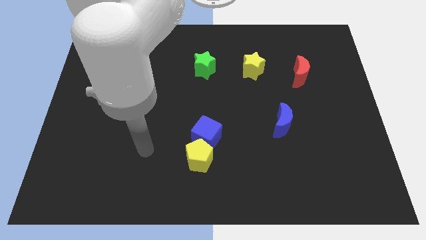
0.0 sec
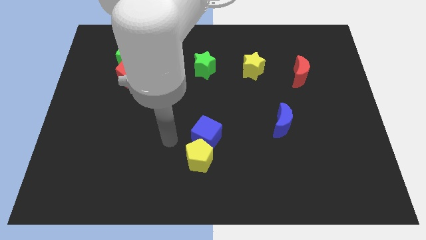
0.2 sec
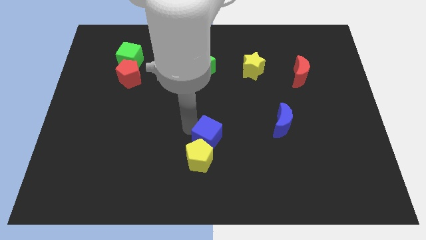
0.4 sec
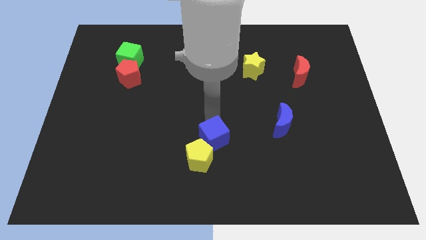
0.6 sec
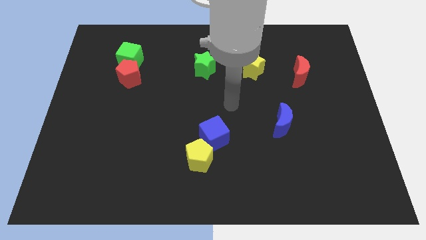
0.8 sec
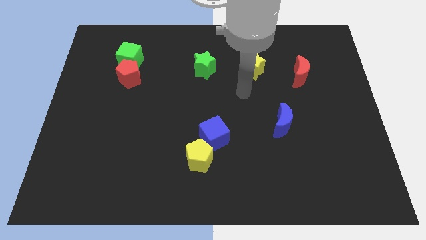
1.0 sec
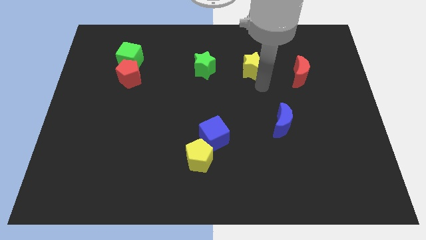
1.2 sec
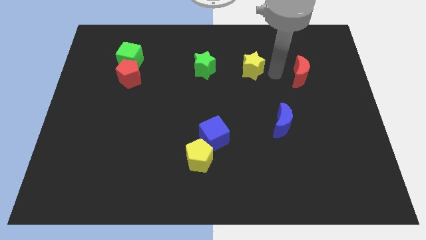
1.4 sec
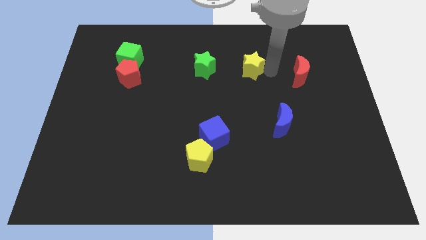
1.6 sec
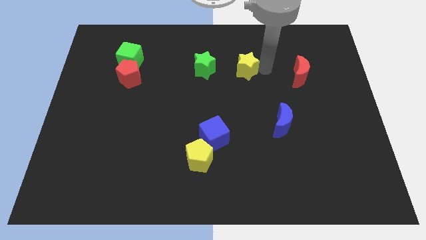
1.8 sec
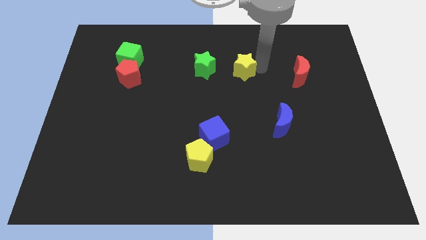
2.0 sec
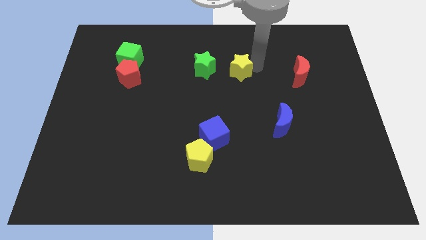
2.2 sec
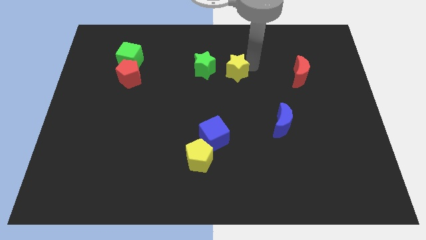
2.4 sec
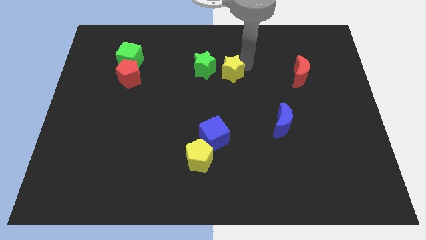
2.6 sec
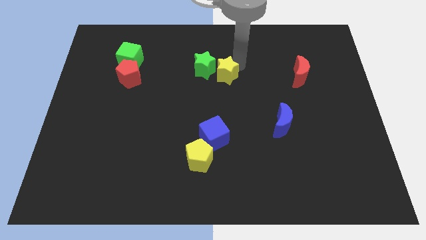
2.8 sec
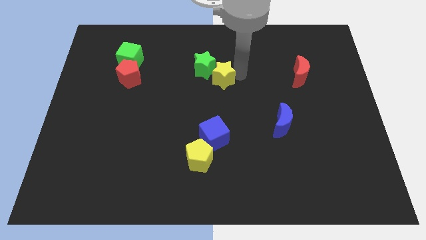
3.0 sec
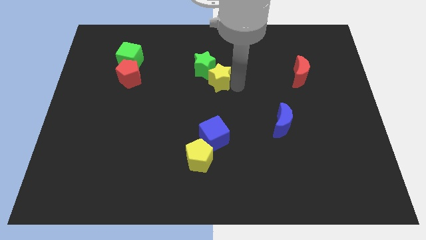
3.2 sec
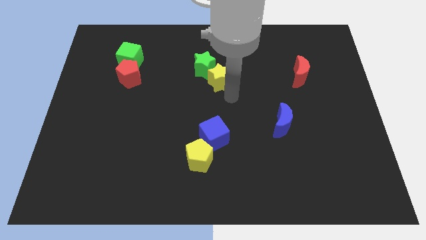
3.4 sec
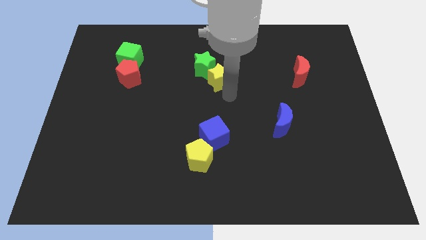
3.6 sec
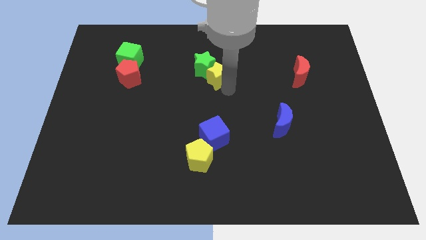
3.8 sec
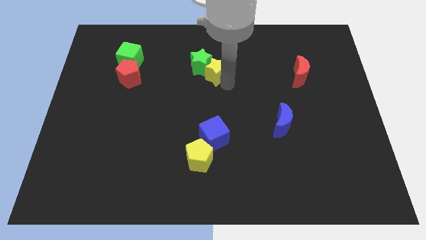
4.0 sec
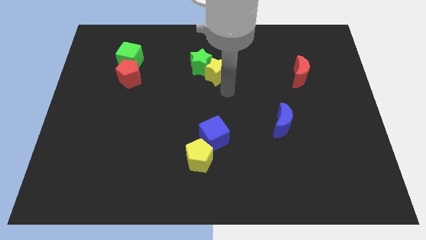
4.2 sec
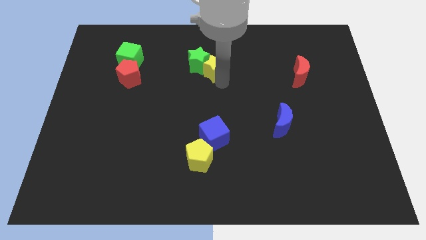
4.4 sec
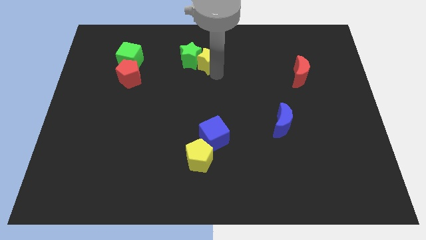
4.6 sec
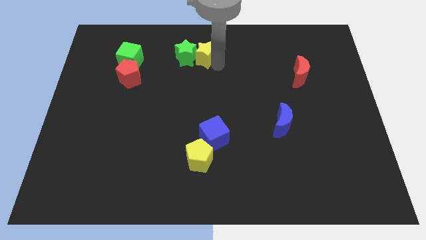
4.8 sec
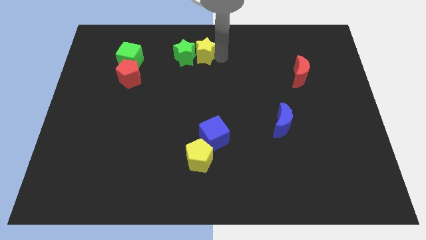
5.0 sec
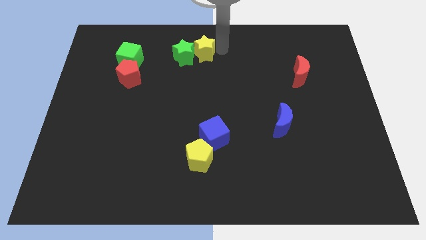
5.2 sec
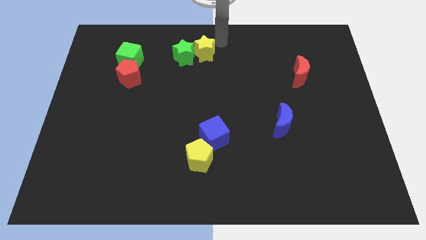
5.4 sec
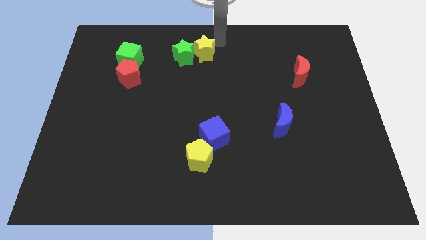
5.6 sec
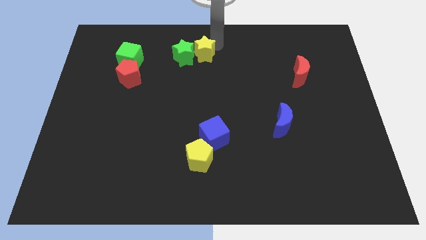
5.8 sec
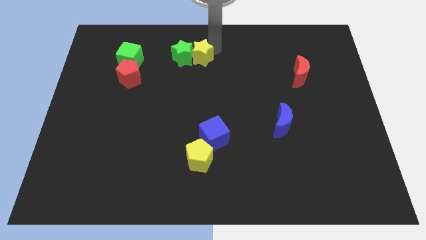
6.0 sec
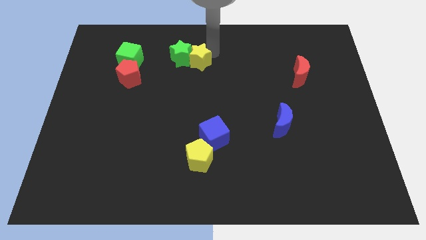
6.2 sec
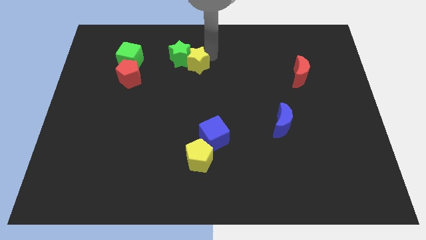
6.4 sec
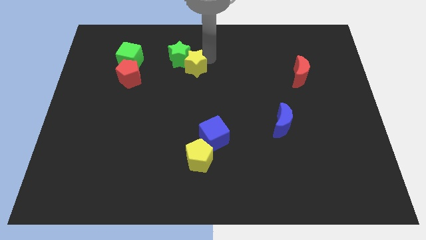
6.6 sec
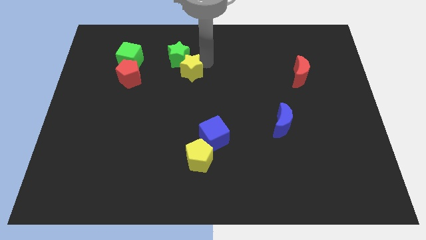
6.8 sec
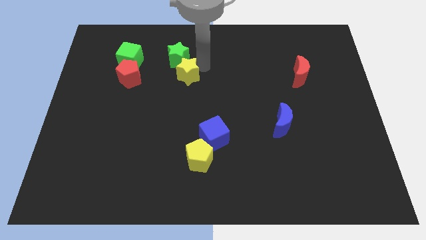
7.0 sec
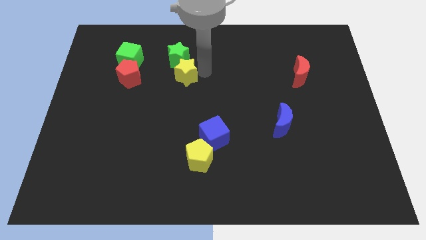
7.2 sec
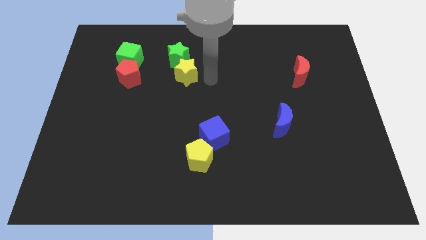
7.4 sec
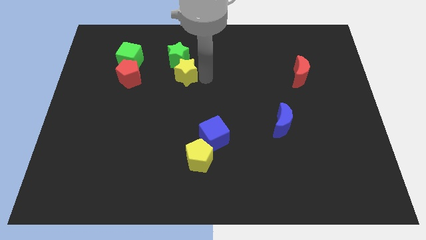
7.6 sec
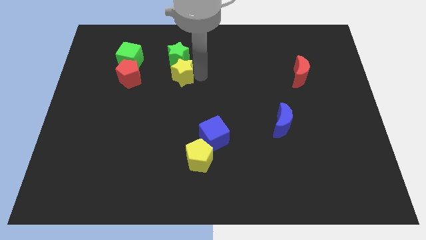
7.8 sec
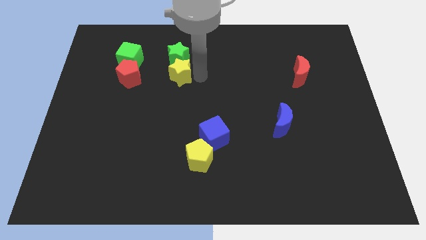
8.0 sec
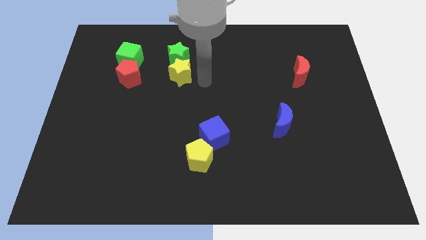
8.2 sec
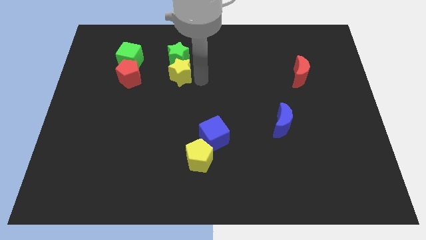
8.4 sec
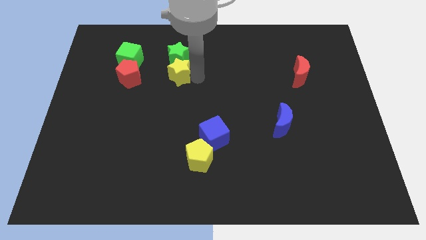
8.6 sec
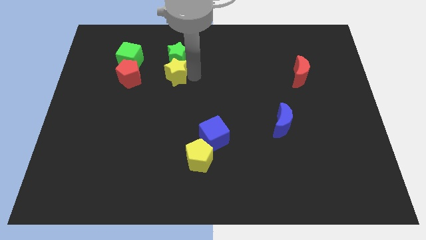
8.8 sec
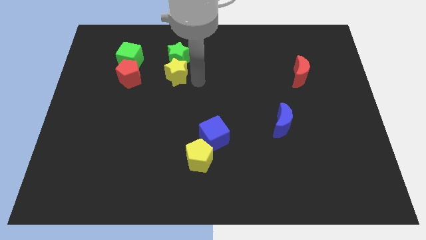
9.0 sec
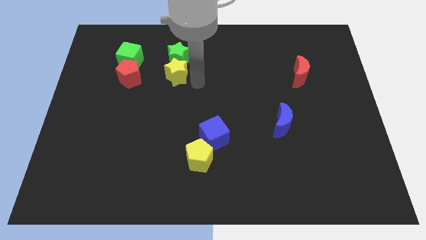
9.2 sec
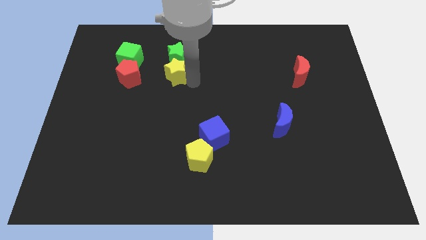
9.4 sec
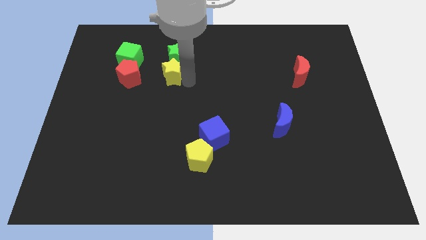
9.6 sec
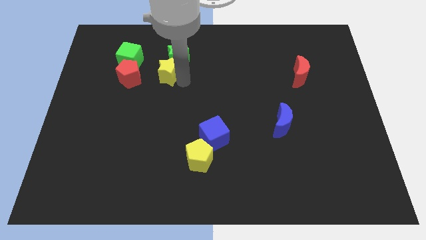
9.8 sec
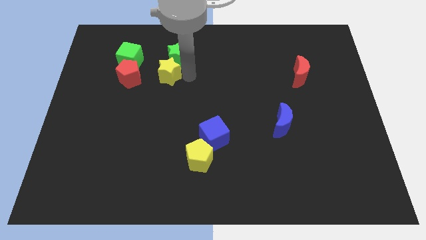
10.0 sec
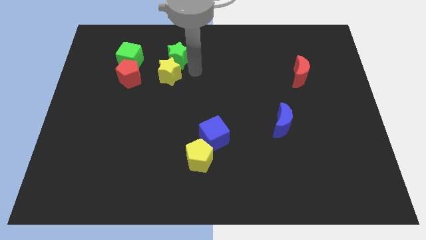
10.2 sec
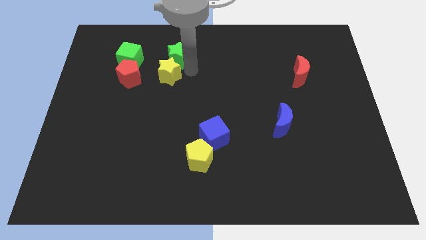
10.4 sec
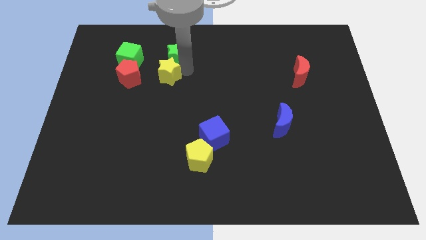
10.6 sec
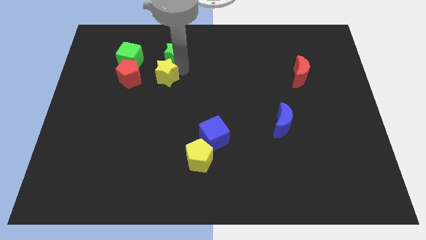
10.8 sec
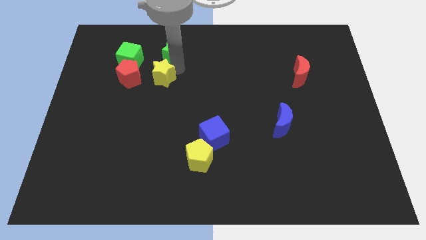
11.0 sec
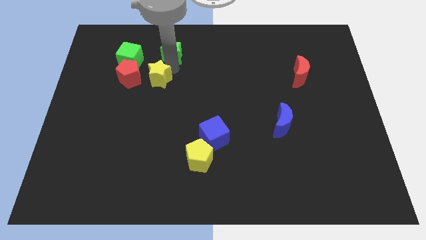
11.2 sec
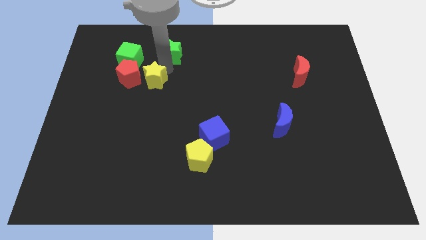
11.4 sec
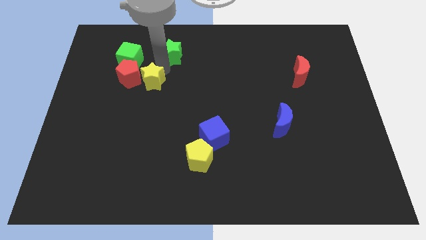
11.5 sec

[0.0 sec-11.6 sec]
move the yellow star to the red pentagon

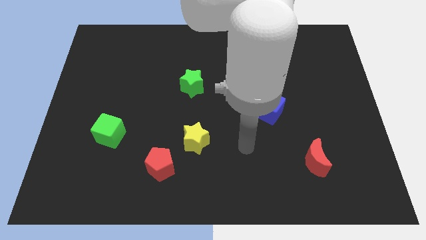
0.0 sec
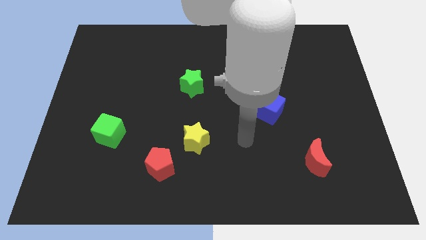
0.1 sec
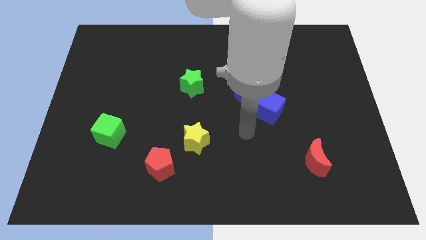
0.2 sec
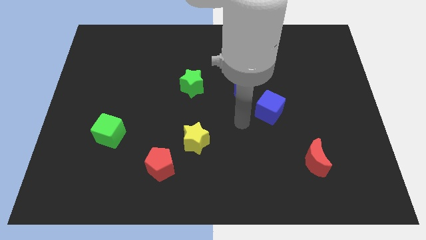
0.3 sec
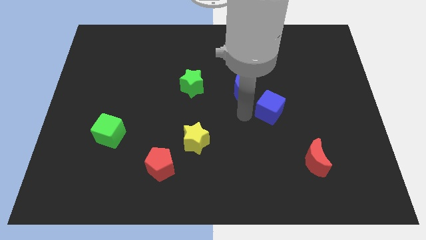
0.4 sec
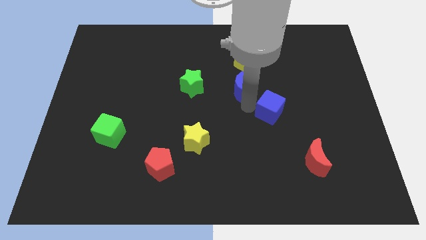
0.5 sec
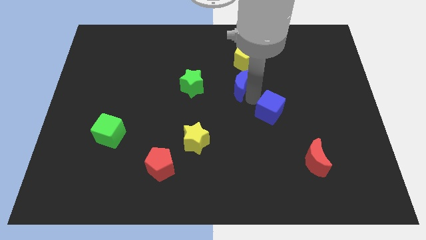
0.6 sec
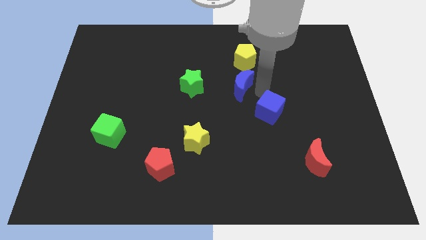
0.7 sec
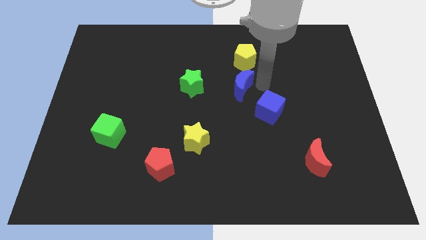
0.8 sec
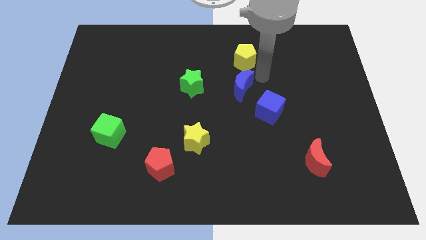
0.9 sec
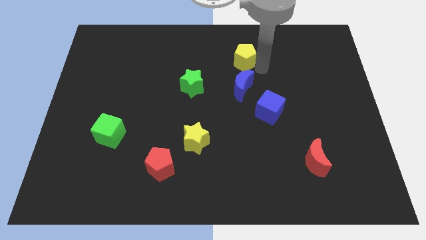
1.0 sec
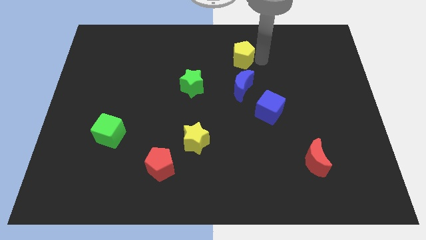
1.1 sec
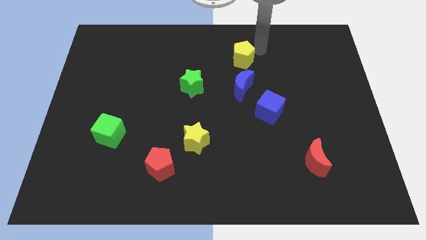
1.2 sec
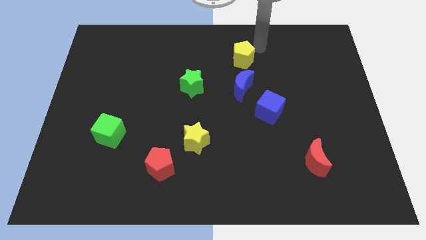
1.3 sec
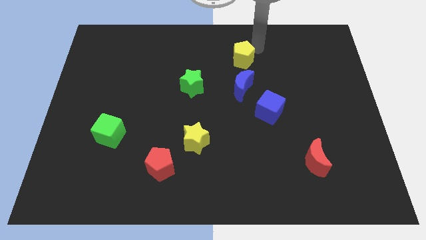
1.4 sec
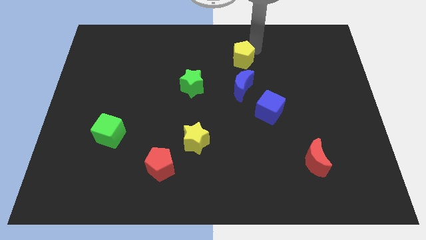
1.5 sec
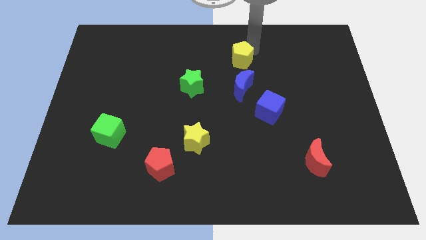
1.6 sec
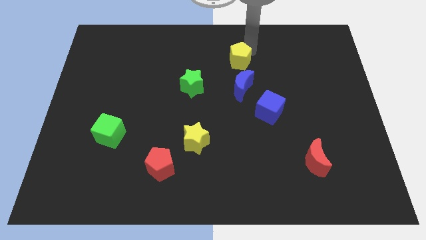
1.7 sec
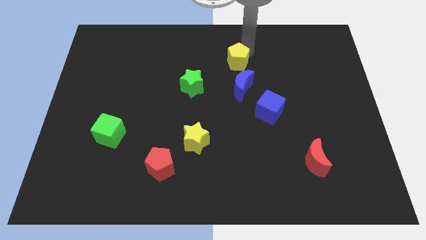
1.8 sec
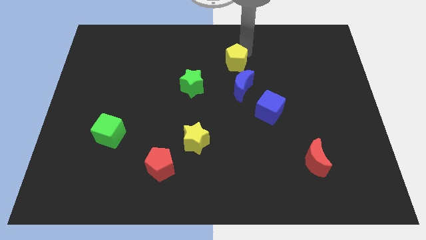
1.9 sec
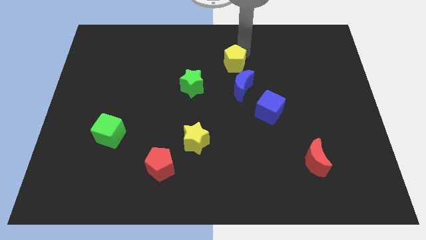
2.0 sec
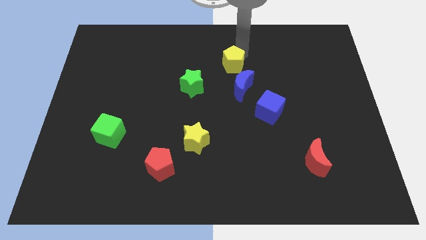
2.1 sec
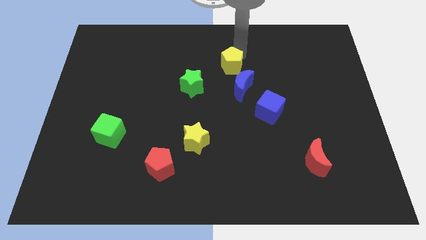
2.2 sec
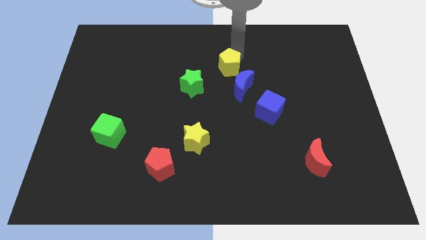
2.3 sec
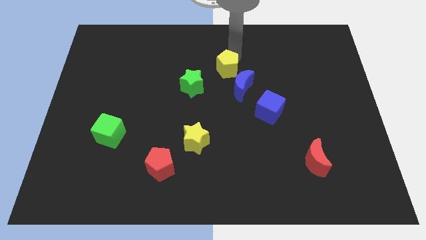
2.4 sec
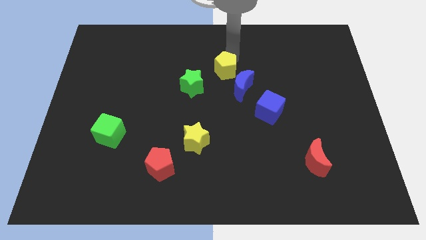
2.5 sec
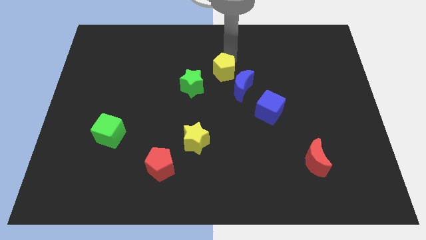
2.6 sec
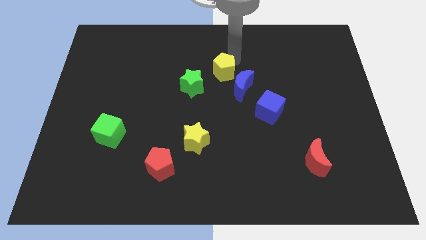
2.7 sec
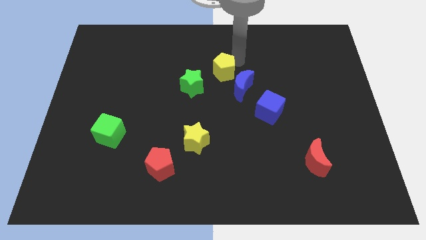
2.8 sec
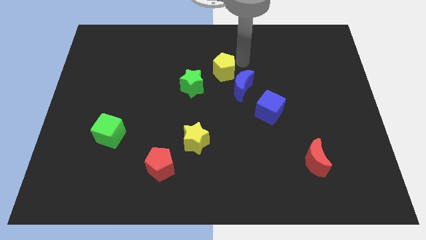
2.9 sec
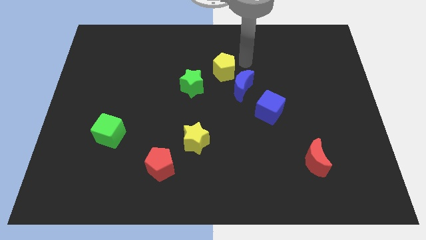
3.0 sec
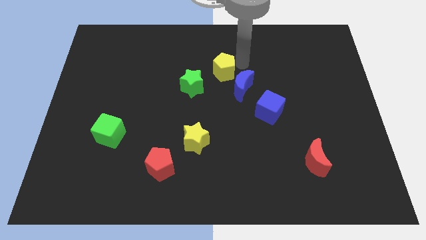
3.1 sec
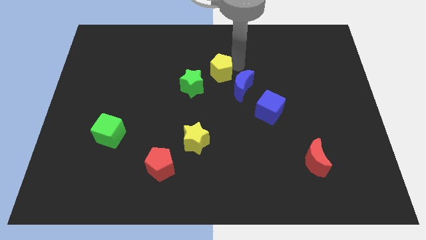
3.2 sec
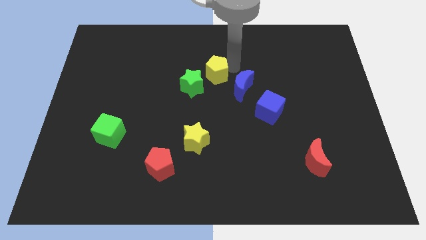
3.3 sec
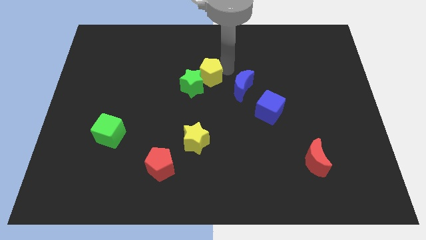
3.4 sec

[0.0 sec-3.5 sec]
slide the yellow pentagon close to the green star
